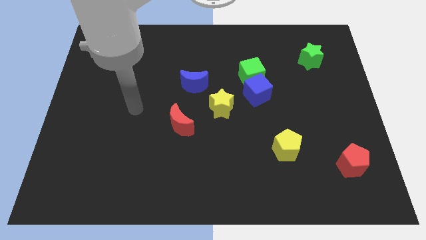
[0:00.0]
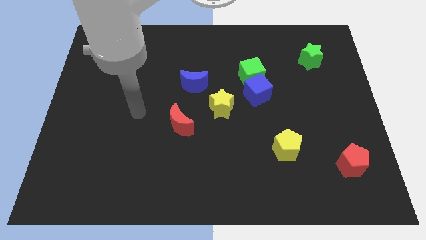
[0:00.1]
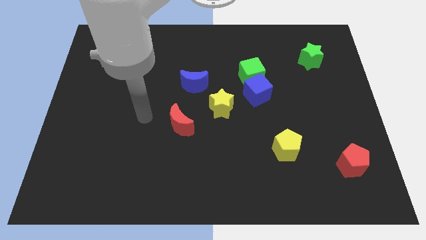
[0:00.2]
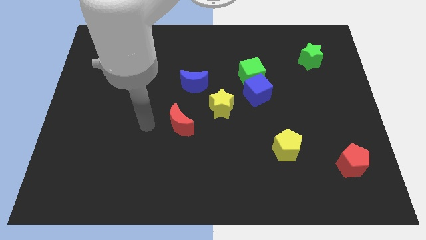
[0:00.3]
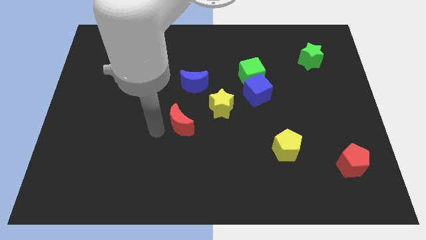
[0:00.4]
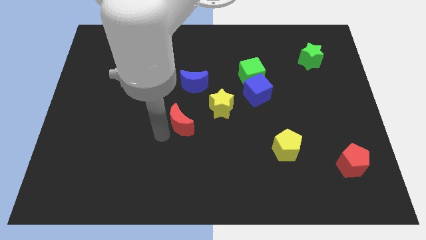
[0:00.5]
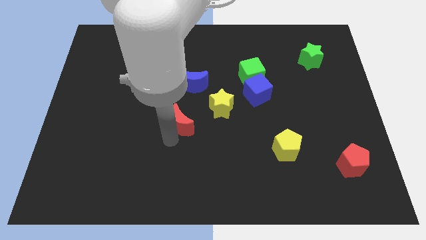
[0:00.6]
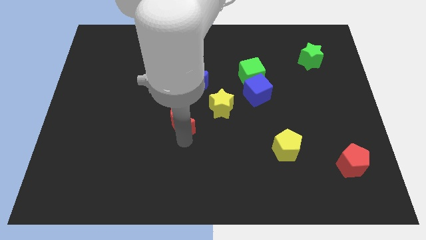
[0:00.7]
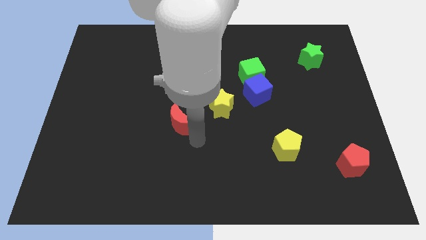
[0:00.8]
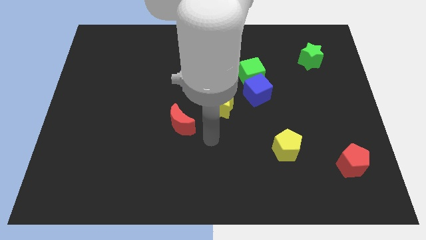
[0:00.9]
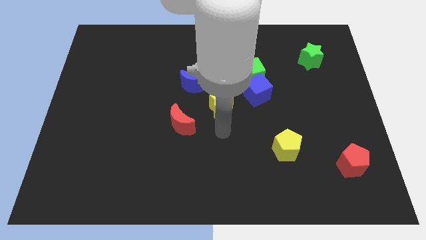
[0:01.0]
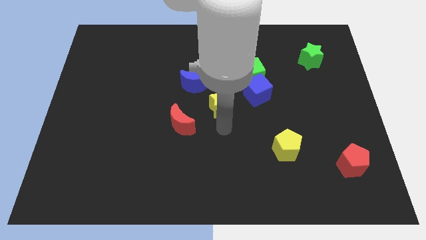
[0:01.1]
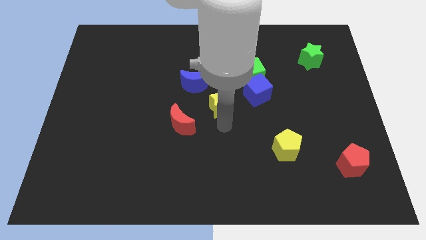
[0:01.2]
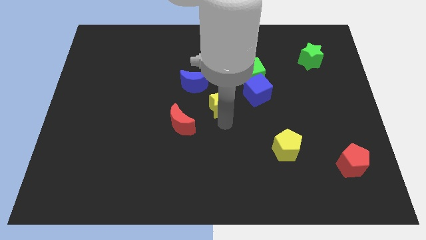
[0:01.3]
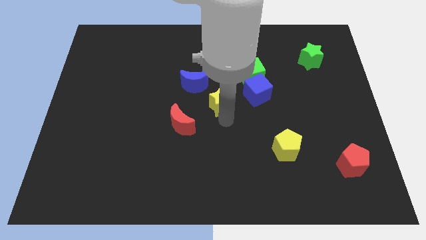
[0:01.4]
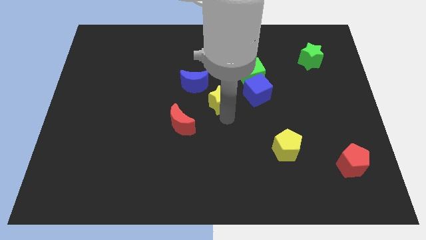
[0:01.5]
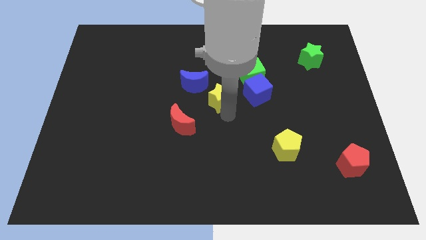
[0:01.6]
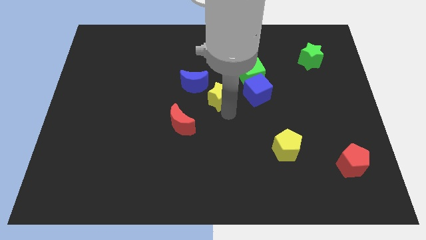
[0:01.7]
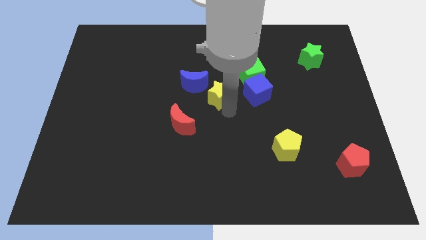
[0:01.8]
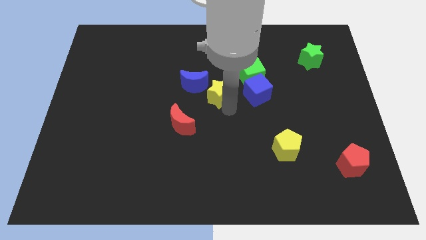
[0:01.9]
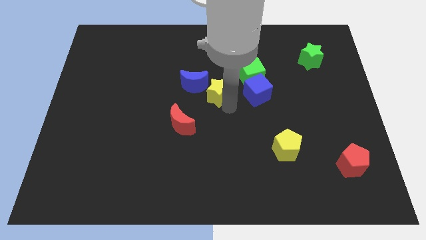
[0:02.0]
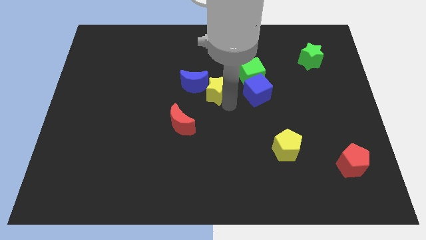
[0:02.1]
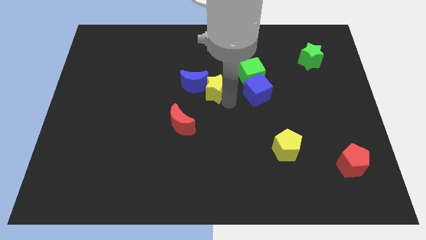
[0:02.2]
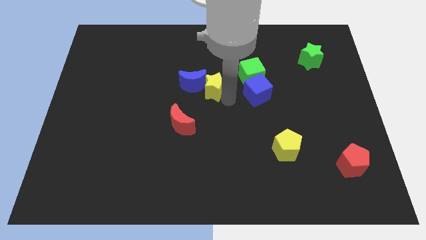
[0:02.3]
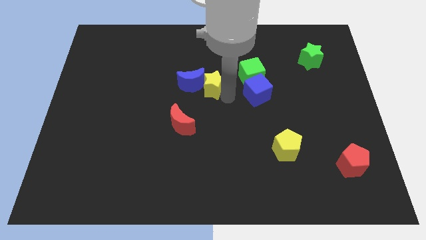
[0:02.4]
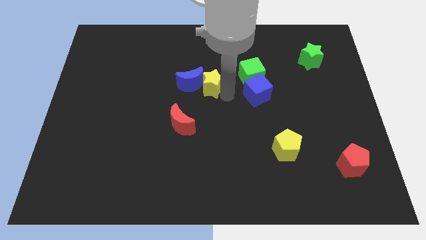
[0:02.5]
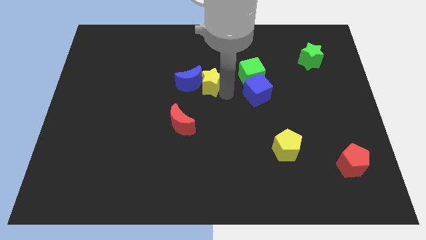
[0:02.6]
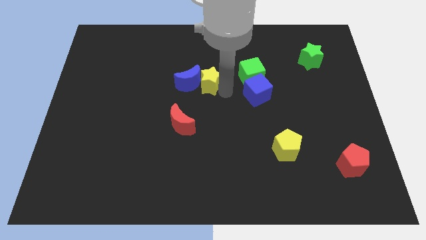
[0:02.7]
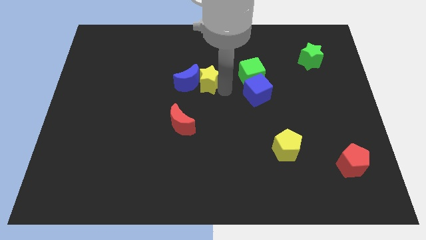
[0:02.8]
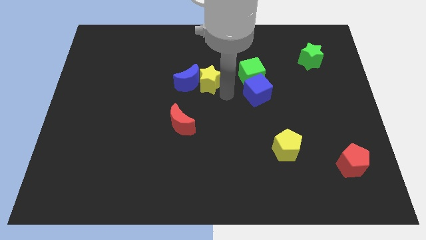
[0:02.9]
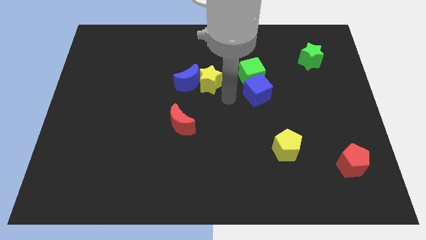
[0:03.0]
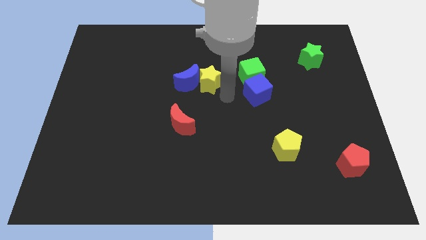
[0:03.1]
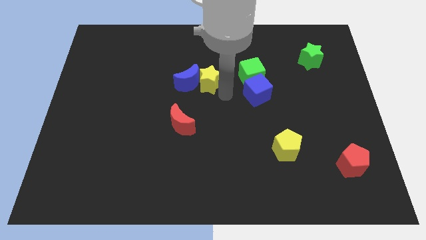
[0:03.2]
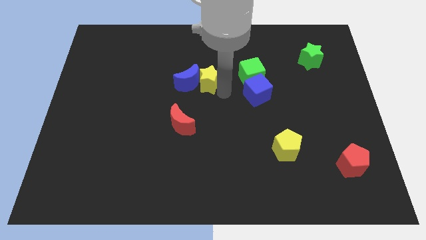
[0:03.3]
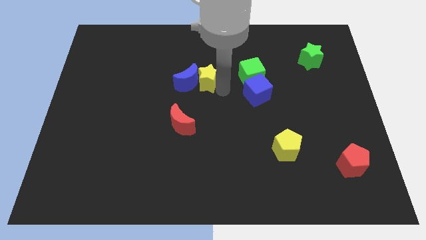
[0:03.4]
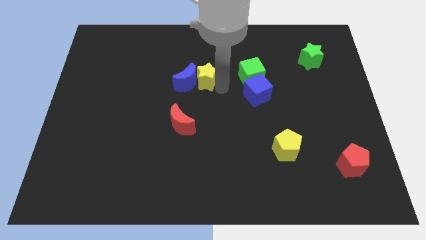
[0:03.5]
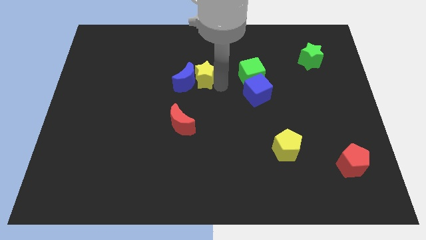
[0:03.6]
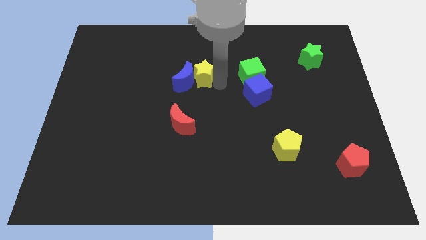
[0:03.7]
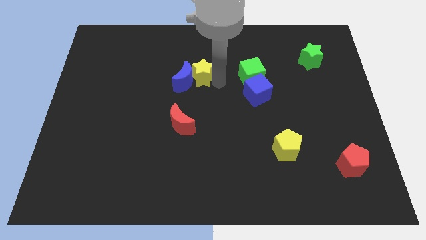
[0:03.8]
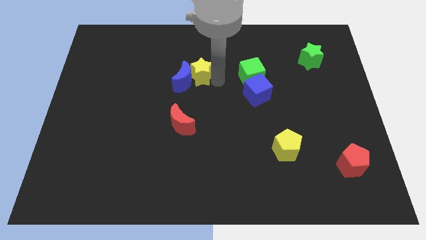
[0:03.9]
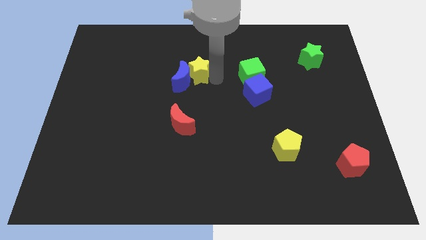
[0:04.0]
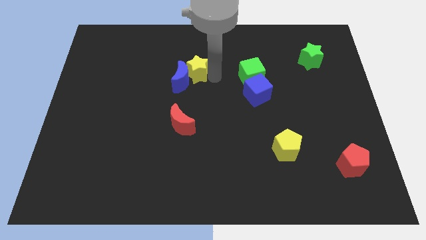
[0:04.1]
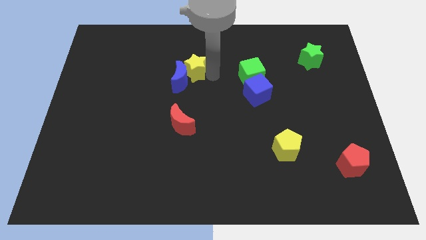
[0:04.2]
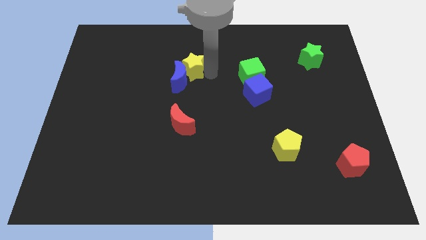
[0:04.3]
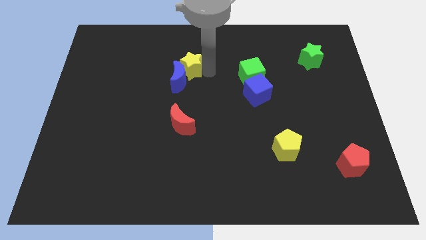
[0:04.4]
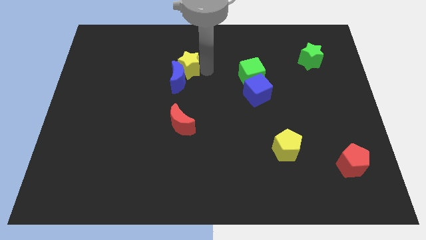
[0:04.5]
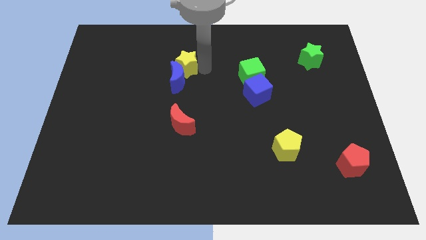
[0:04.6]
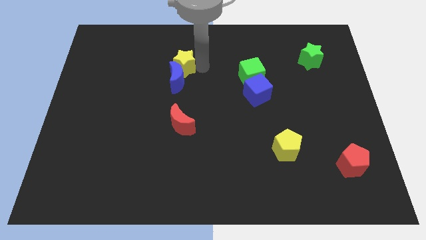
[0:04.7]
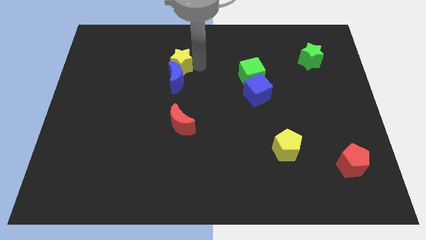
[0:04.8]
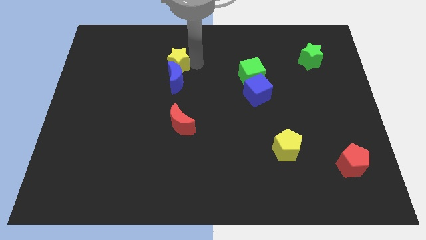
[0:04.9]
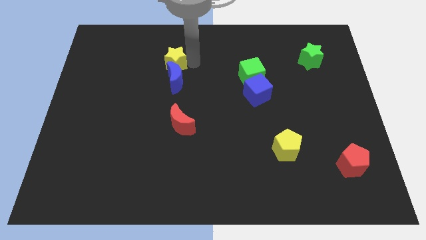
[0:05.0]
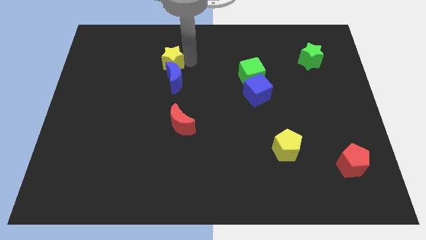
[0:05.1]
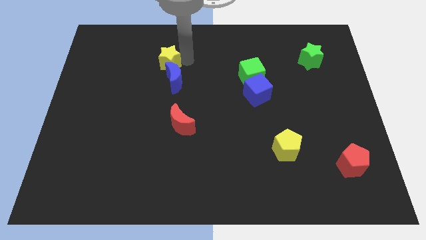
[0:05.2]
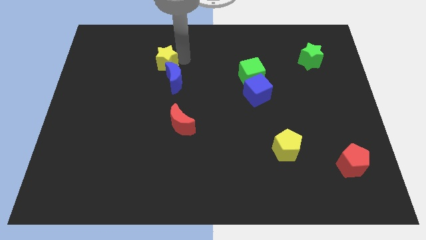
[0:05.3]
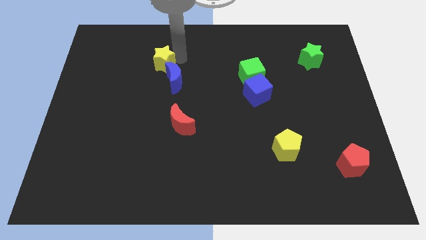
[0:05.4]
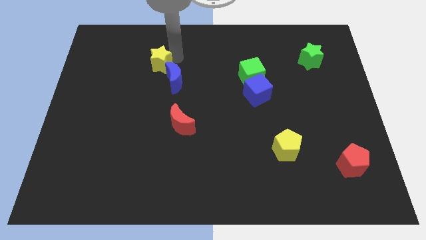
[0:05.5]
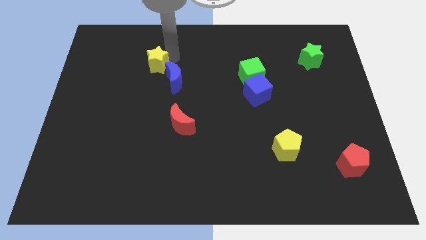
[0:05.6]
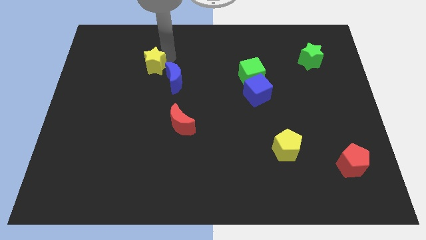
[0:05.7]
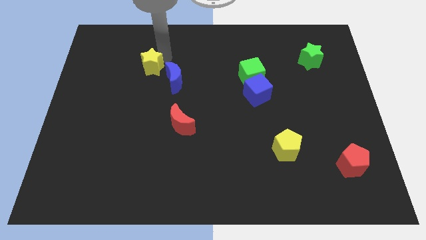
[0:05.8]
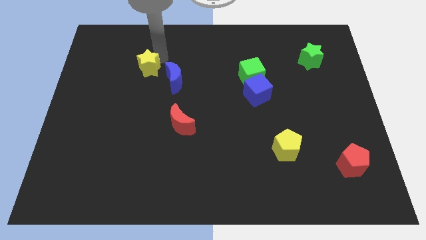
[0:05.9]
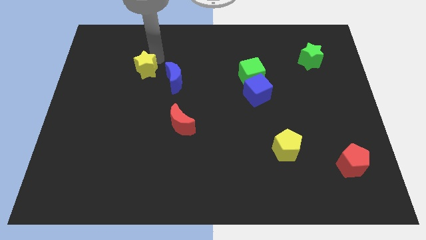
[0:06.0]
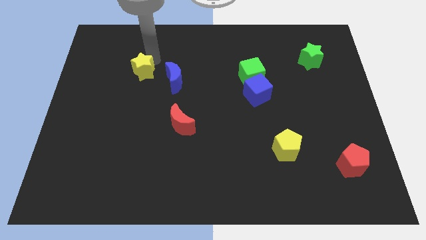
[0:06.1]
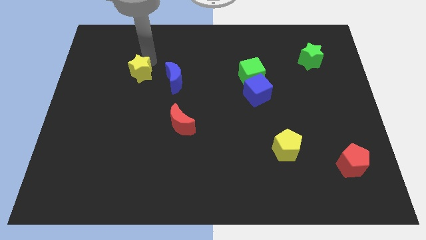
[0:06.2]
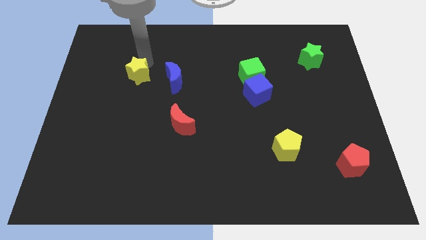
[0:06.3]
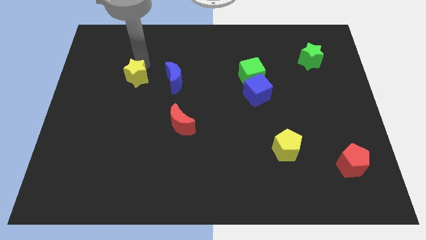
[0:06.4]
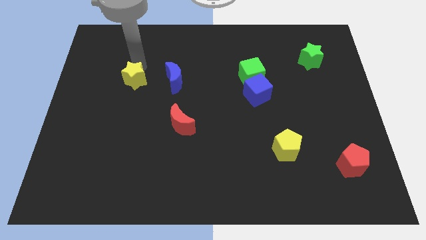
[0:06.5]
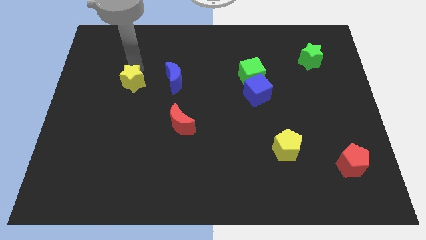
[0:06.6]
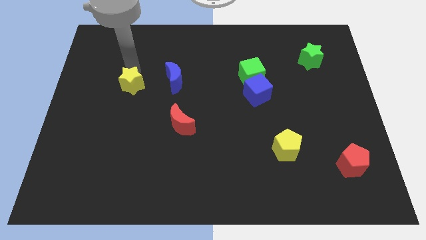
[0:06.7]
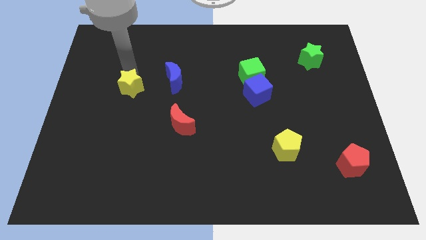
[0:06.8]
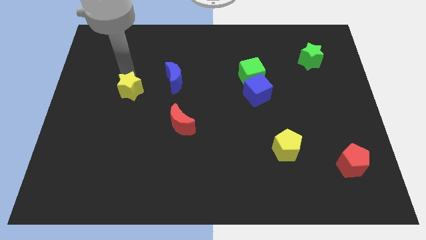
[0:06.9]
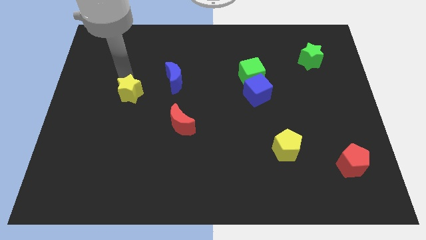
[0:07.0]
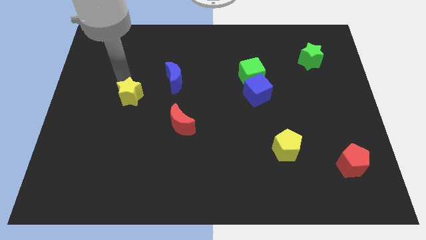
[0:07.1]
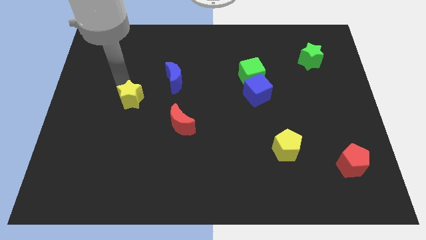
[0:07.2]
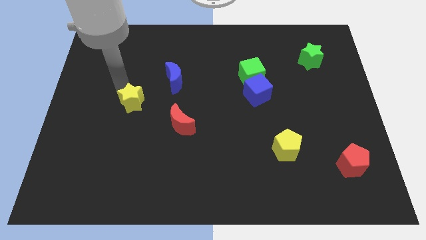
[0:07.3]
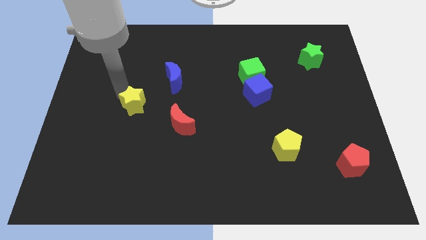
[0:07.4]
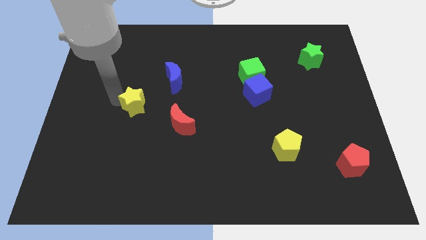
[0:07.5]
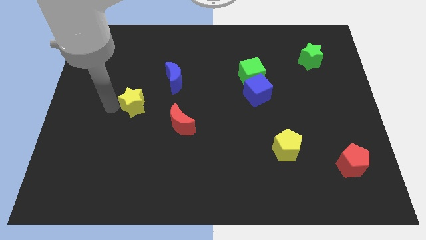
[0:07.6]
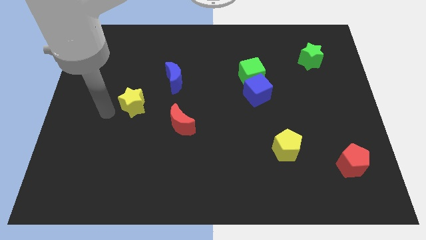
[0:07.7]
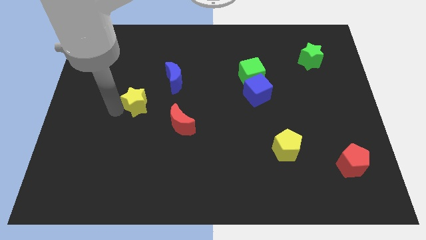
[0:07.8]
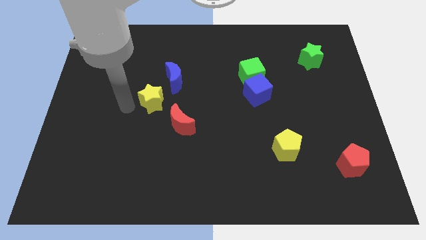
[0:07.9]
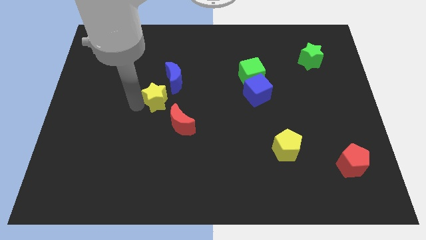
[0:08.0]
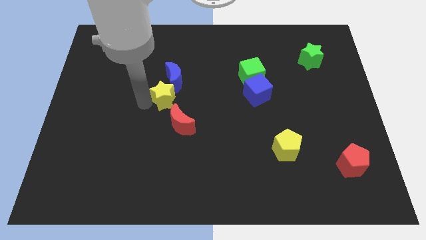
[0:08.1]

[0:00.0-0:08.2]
slide the yellow star to the top side of the red moon
